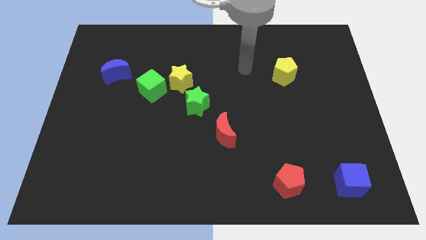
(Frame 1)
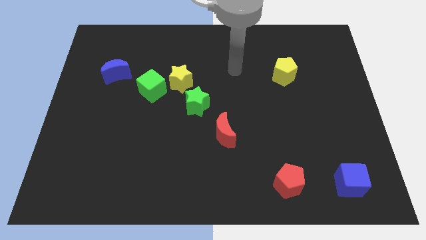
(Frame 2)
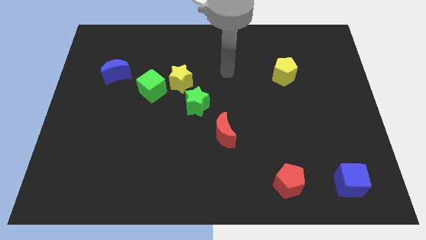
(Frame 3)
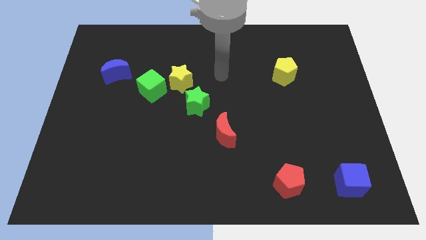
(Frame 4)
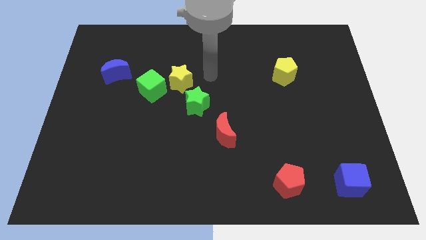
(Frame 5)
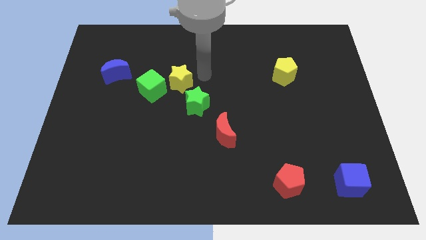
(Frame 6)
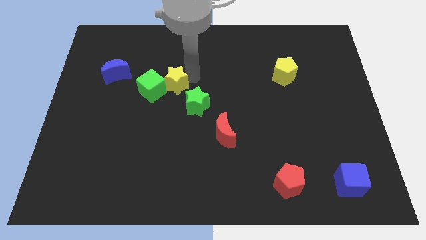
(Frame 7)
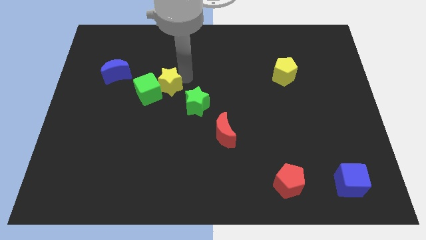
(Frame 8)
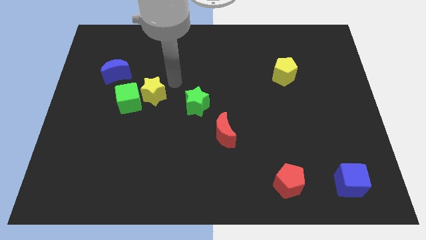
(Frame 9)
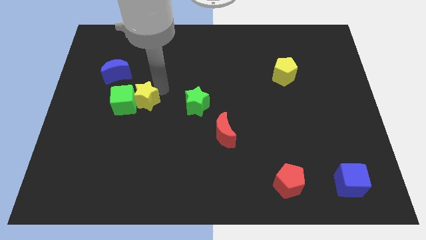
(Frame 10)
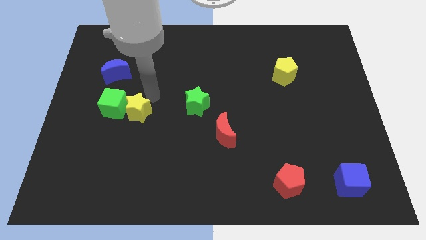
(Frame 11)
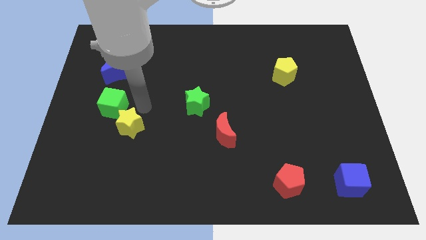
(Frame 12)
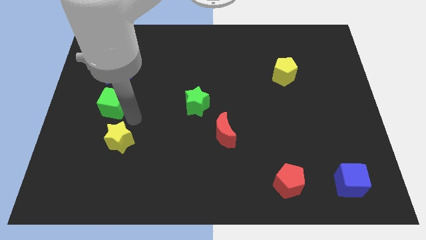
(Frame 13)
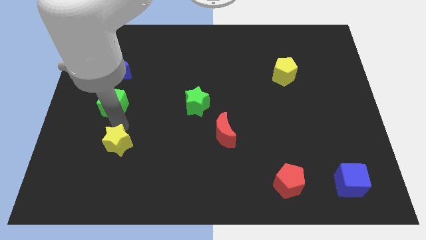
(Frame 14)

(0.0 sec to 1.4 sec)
separate the green cube from the yellow star

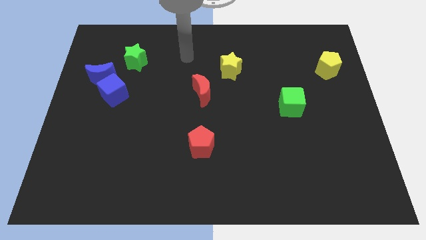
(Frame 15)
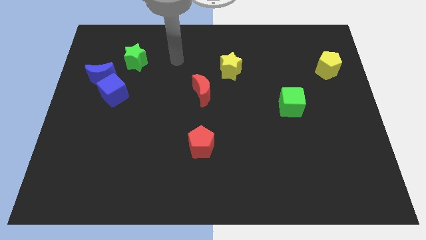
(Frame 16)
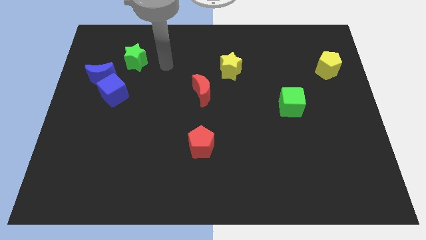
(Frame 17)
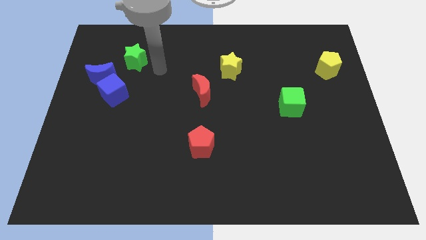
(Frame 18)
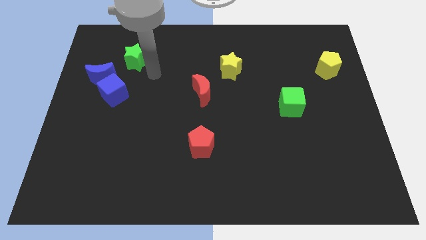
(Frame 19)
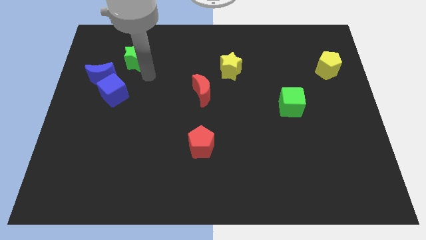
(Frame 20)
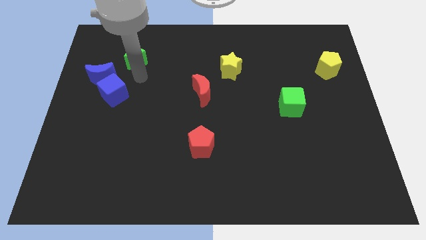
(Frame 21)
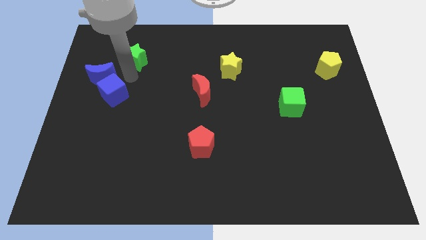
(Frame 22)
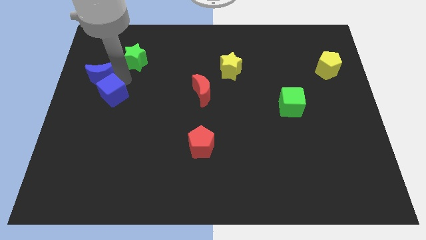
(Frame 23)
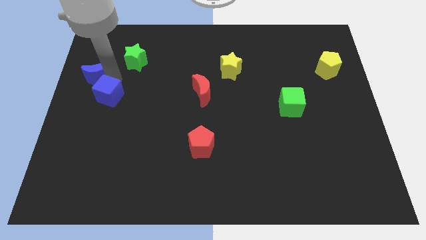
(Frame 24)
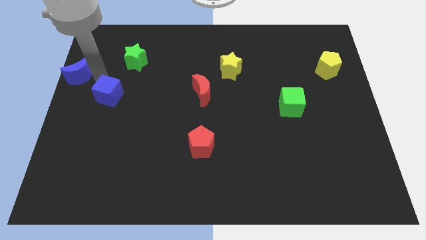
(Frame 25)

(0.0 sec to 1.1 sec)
move the blue cube away from the blue moon

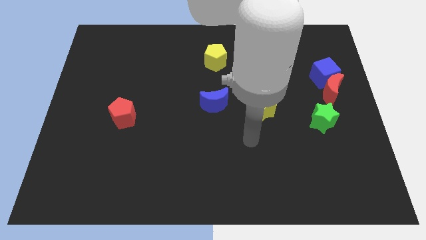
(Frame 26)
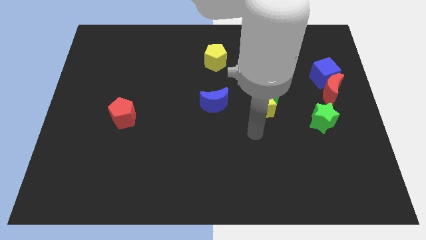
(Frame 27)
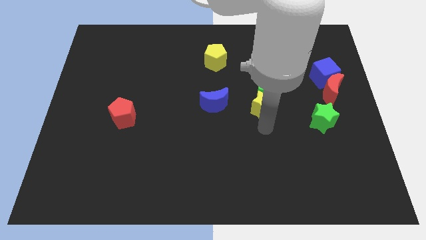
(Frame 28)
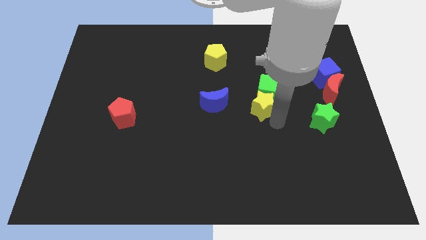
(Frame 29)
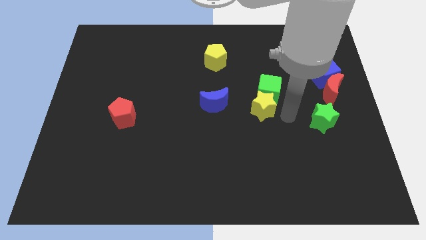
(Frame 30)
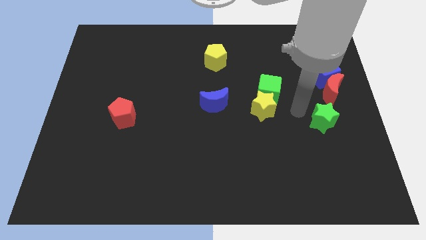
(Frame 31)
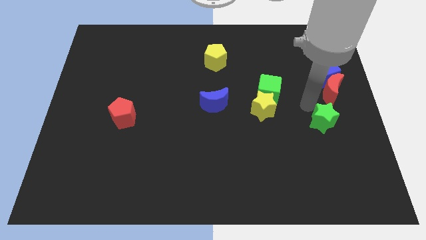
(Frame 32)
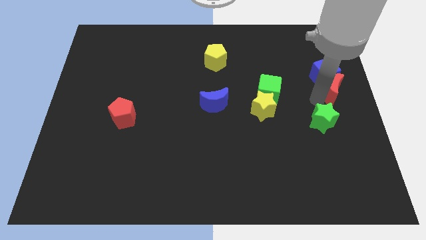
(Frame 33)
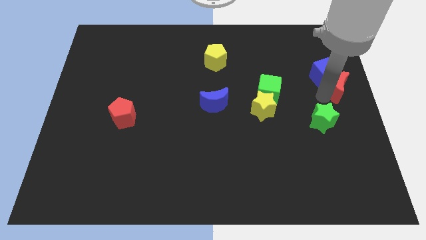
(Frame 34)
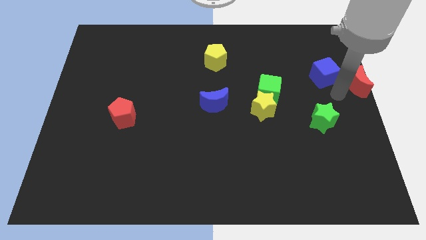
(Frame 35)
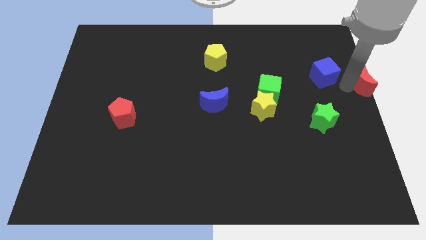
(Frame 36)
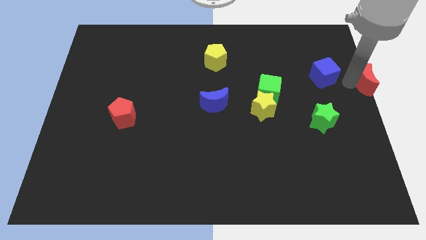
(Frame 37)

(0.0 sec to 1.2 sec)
move the blue cube away from the red moon

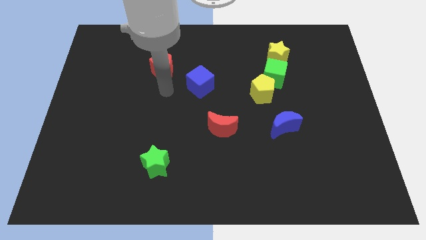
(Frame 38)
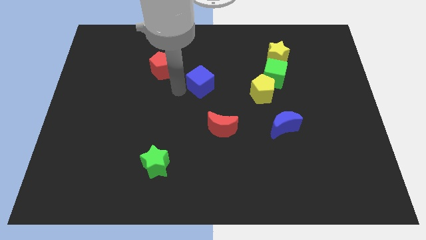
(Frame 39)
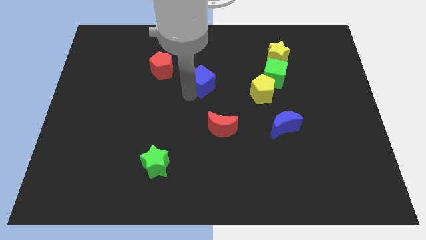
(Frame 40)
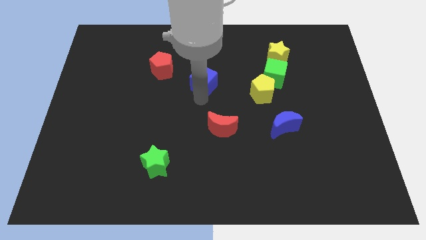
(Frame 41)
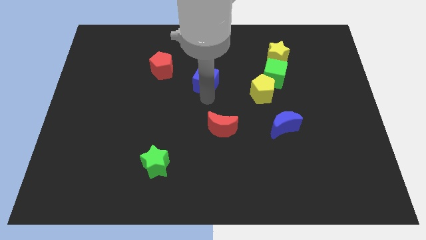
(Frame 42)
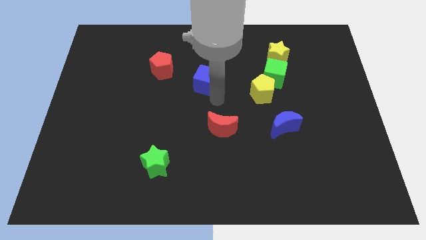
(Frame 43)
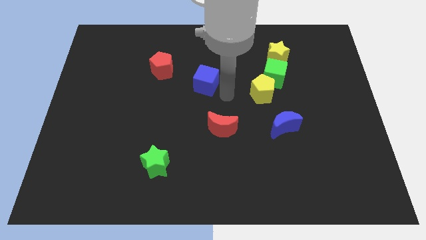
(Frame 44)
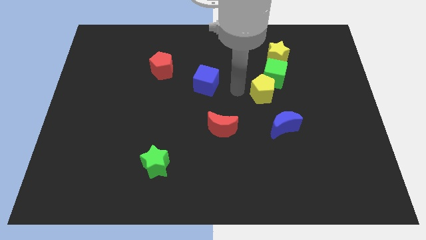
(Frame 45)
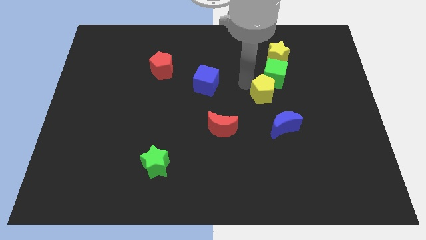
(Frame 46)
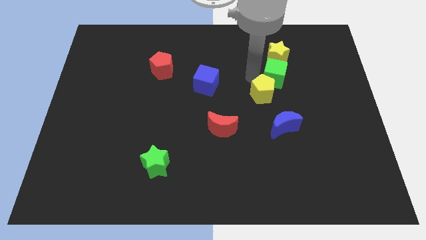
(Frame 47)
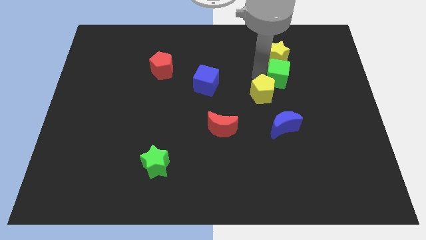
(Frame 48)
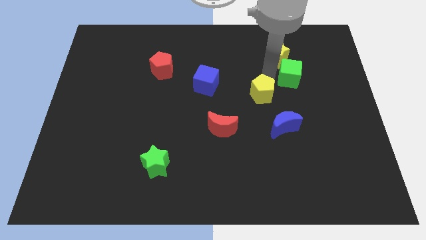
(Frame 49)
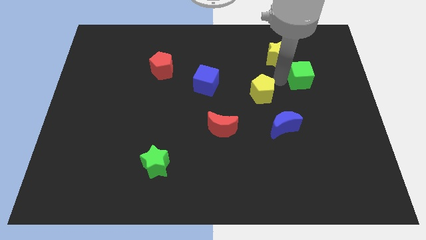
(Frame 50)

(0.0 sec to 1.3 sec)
move the yellow pentagon away from the green cube

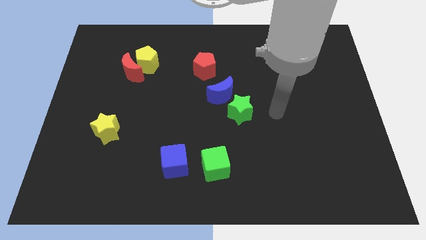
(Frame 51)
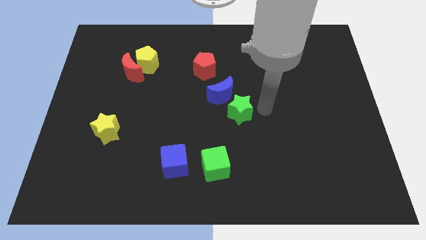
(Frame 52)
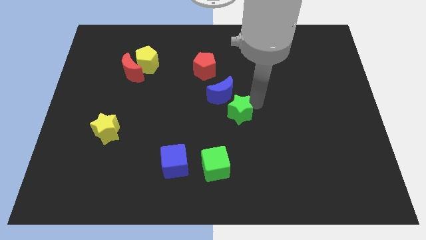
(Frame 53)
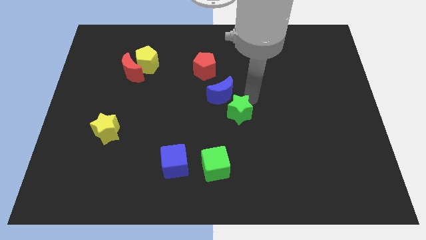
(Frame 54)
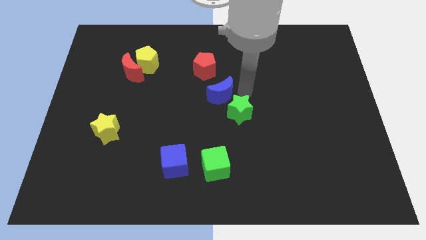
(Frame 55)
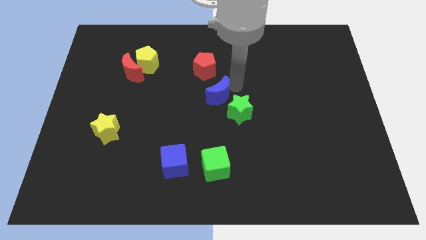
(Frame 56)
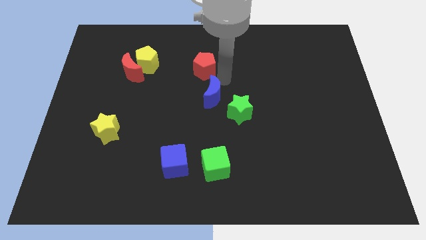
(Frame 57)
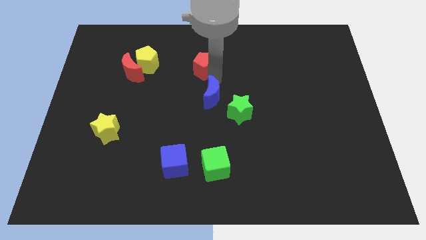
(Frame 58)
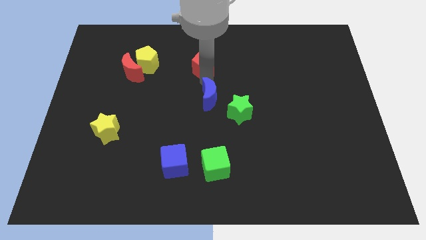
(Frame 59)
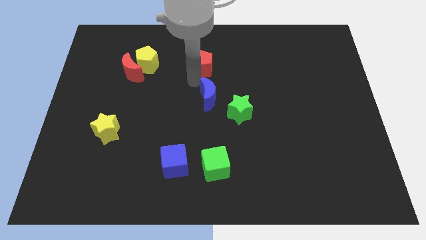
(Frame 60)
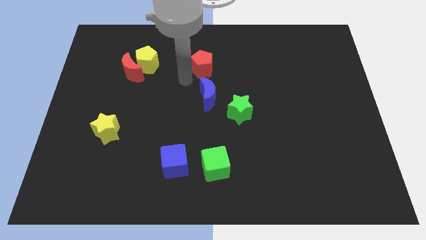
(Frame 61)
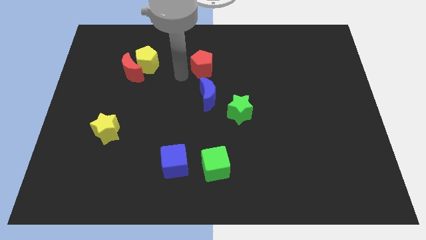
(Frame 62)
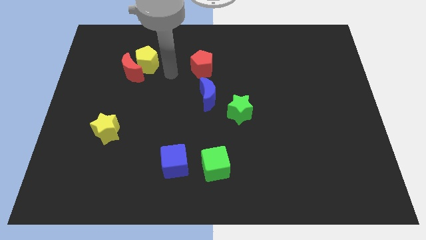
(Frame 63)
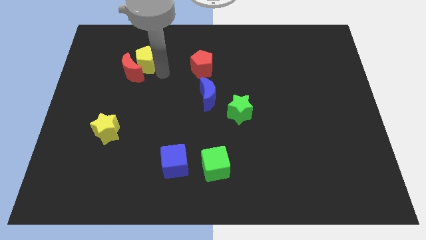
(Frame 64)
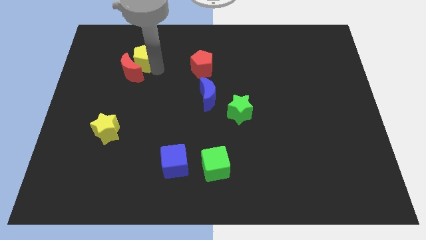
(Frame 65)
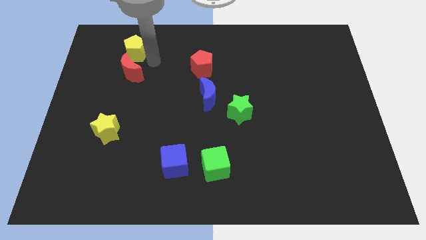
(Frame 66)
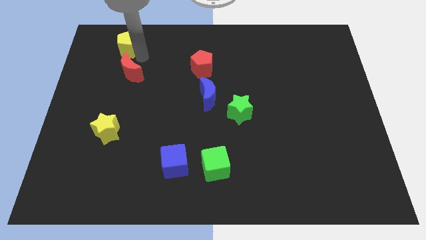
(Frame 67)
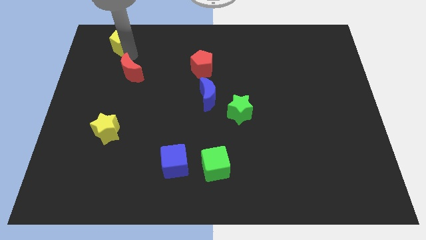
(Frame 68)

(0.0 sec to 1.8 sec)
separate the red moon from the yellow pentagon

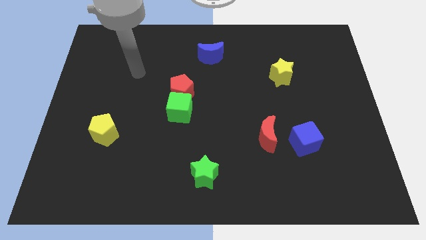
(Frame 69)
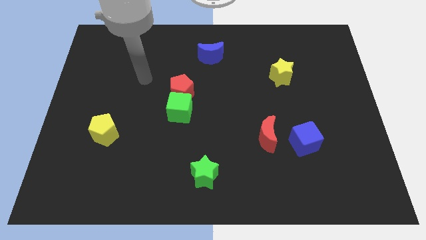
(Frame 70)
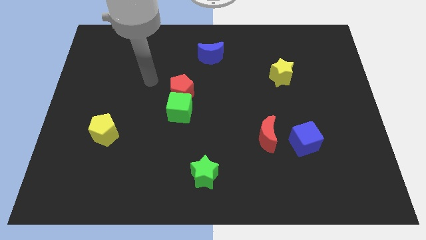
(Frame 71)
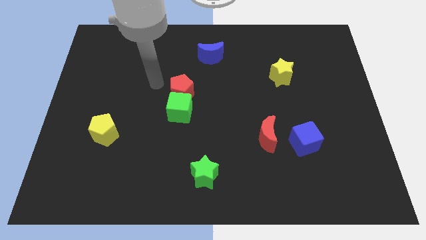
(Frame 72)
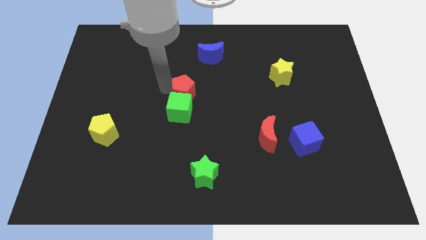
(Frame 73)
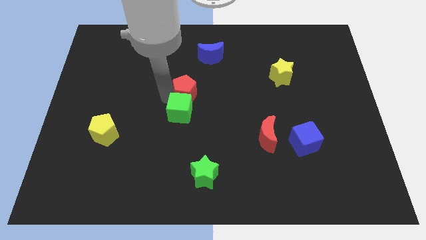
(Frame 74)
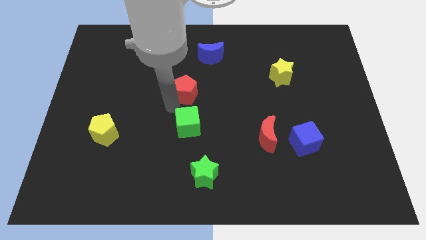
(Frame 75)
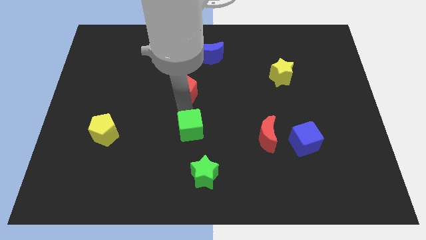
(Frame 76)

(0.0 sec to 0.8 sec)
move the red pentagon away from the green cube

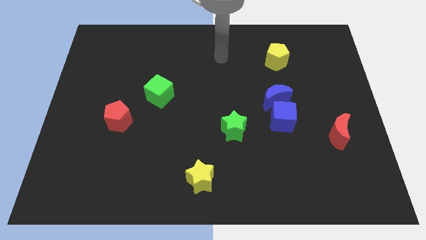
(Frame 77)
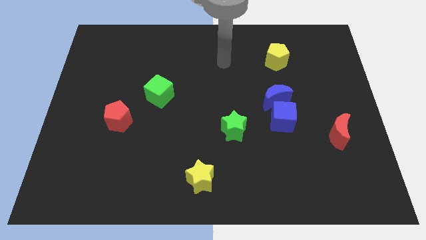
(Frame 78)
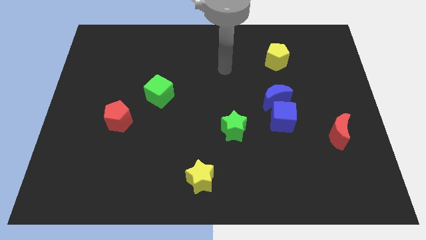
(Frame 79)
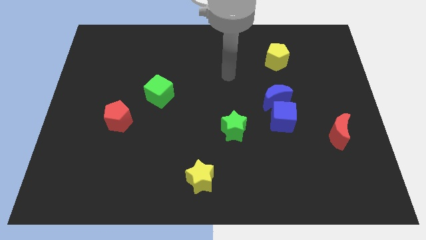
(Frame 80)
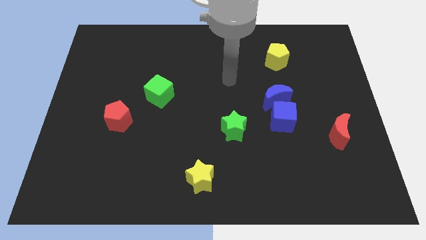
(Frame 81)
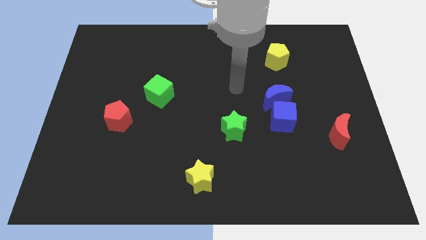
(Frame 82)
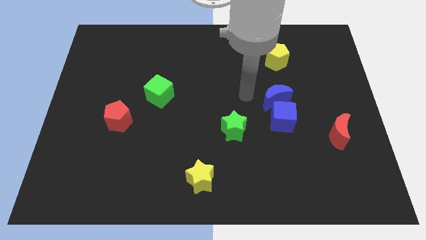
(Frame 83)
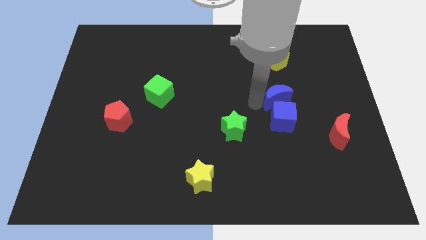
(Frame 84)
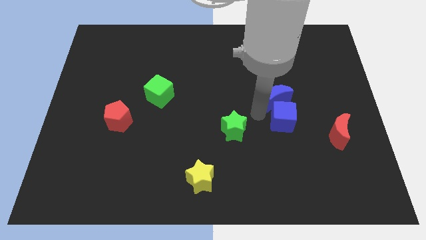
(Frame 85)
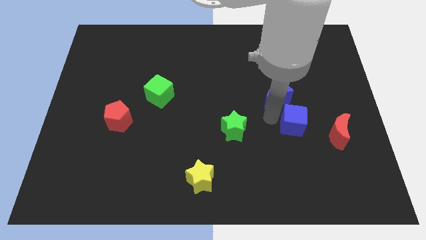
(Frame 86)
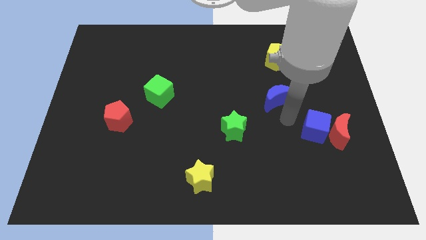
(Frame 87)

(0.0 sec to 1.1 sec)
move the blue moon away from the blue cube

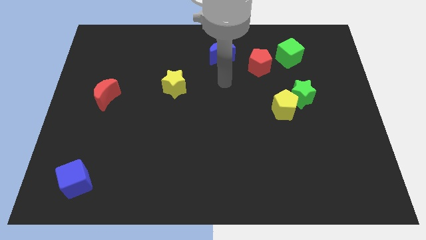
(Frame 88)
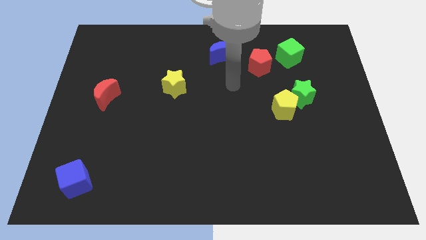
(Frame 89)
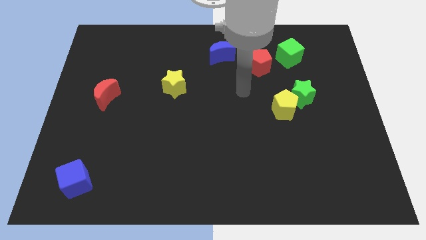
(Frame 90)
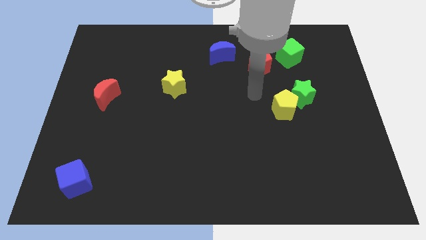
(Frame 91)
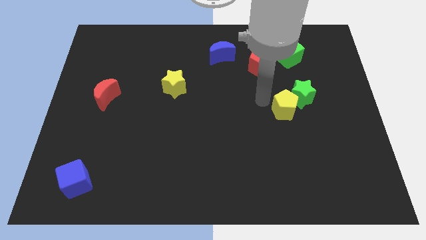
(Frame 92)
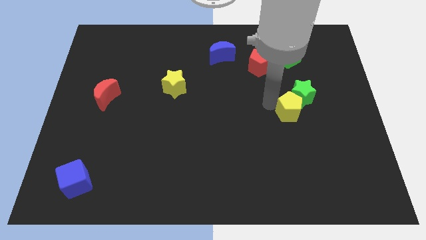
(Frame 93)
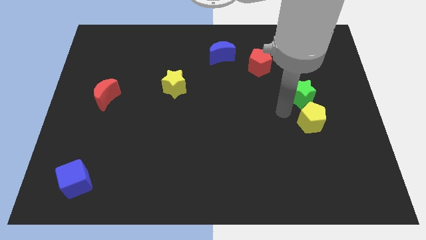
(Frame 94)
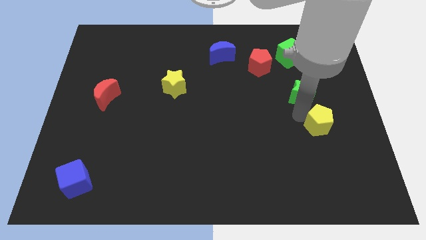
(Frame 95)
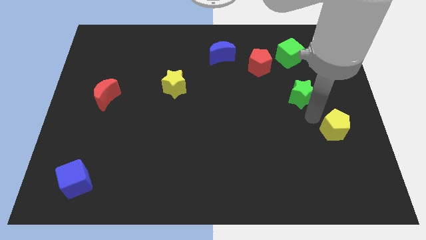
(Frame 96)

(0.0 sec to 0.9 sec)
move the green star away from the yellow pentagon
